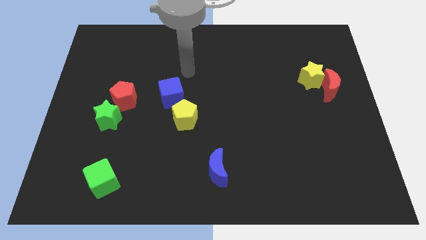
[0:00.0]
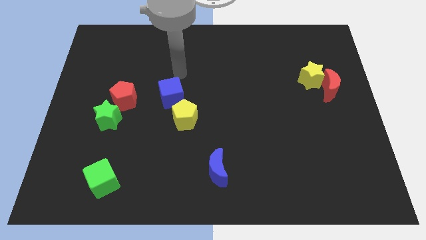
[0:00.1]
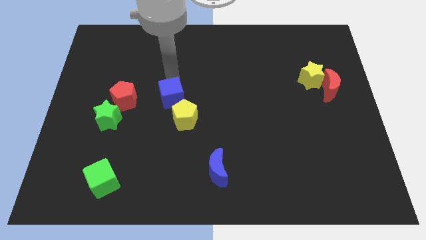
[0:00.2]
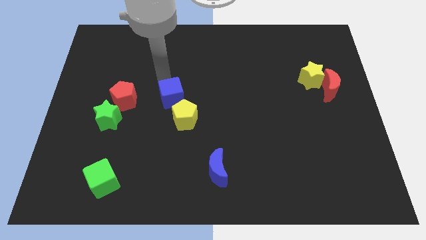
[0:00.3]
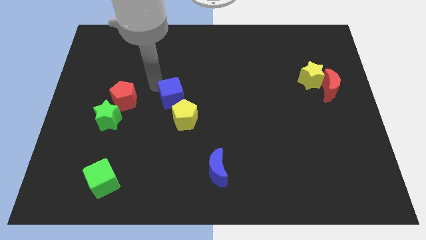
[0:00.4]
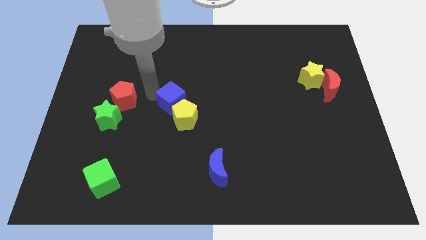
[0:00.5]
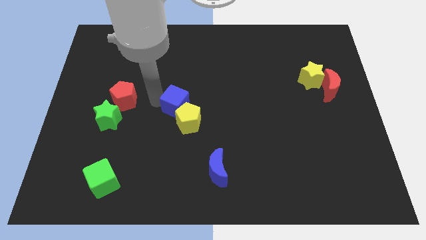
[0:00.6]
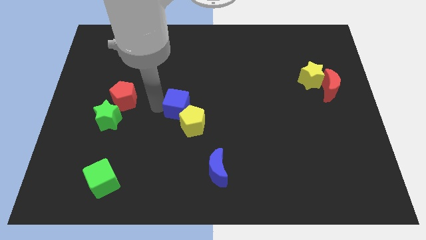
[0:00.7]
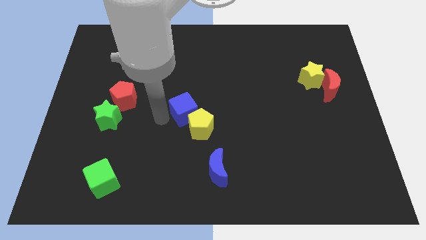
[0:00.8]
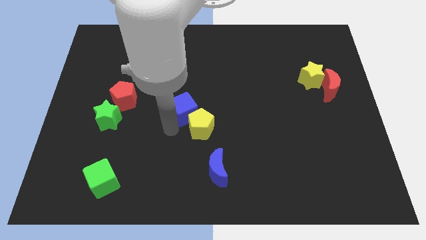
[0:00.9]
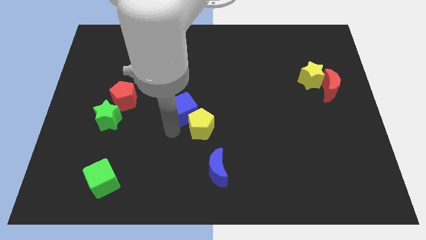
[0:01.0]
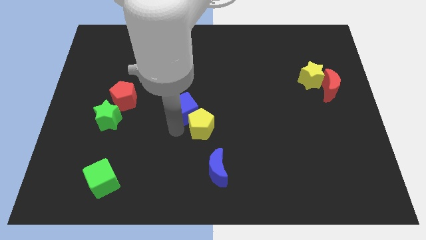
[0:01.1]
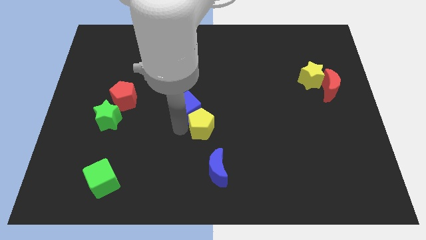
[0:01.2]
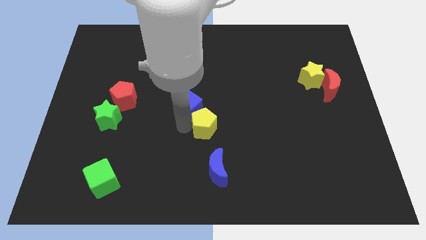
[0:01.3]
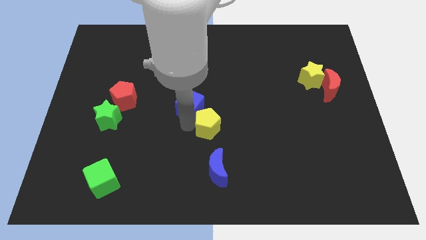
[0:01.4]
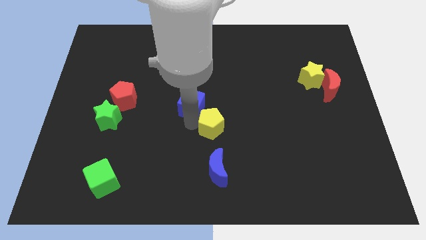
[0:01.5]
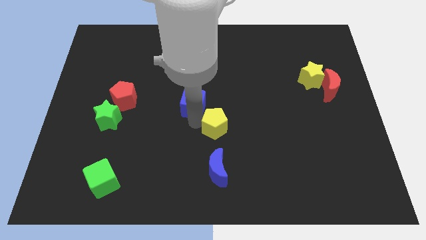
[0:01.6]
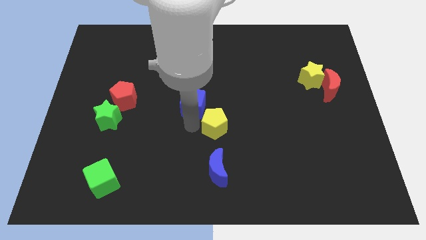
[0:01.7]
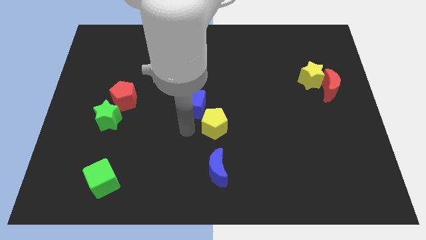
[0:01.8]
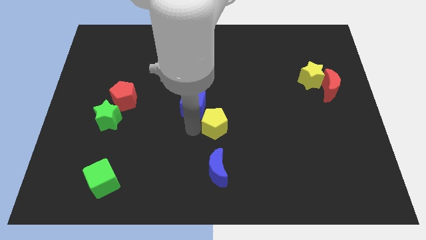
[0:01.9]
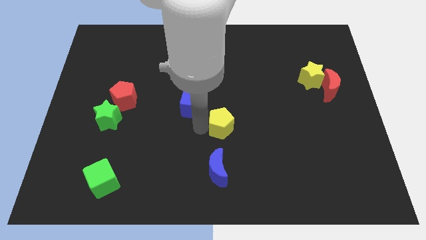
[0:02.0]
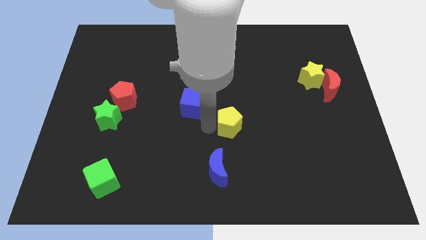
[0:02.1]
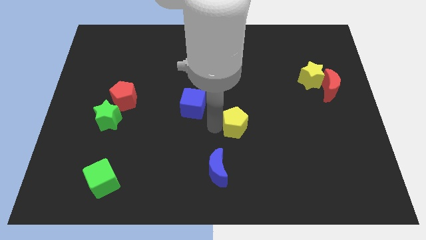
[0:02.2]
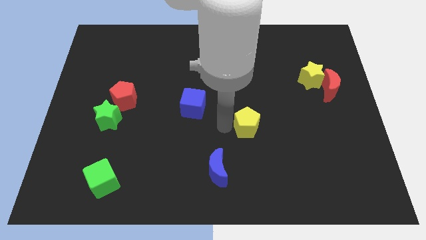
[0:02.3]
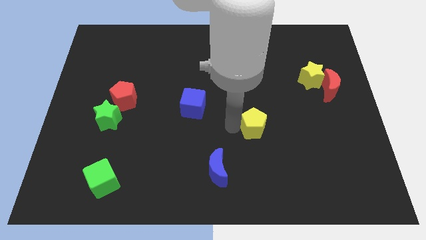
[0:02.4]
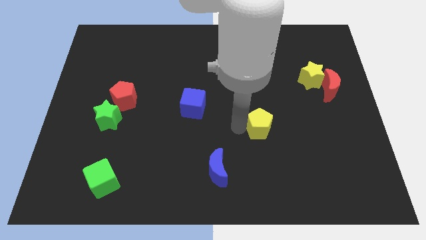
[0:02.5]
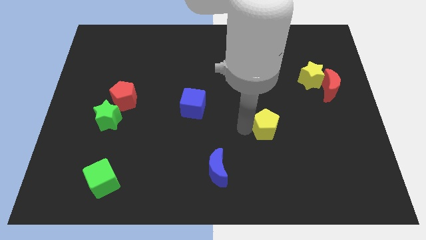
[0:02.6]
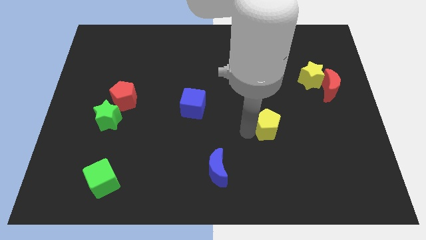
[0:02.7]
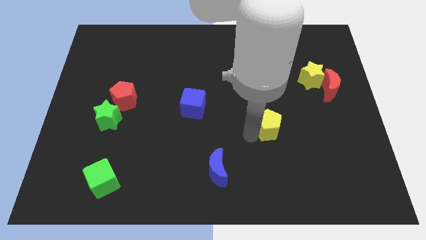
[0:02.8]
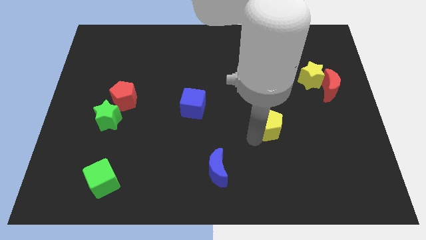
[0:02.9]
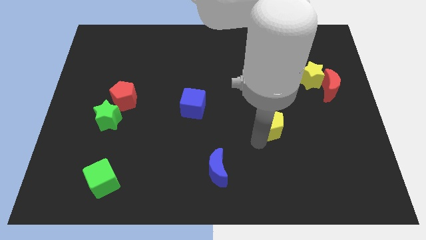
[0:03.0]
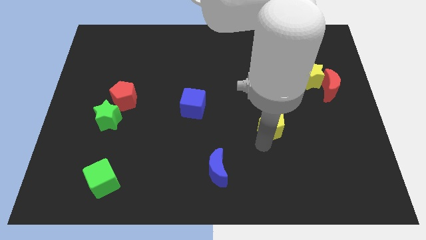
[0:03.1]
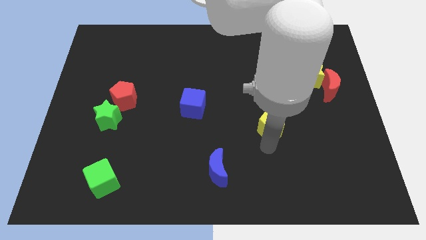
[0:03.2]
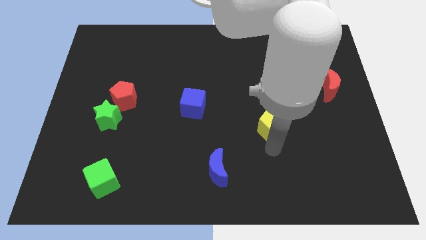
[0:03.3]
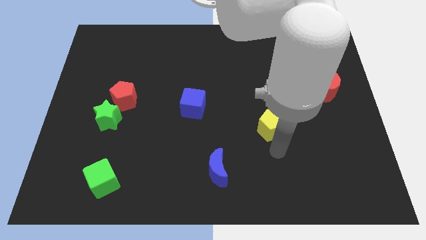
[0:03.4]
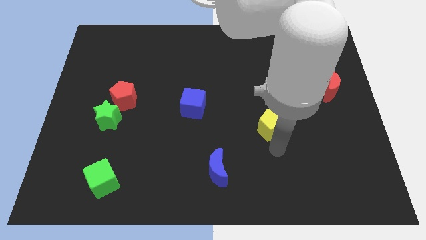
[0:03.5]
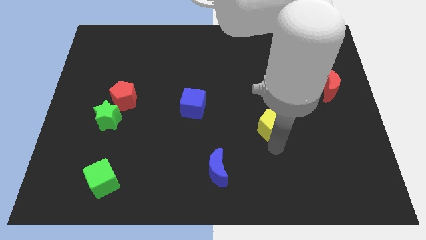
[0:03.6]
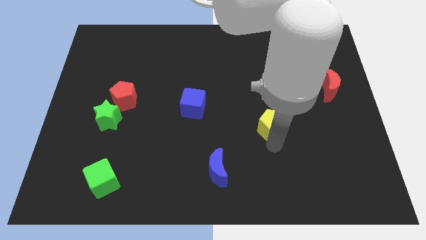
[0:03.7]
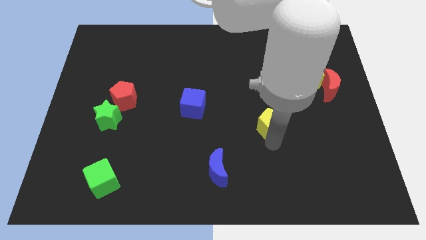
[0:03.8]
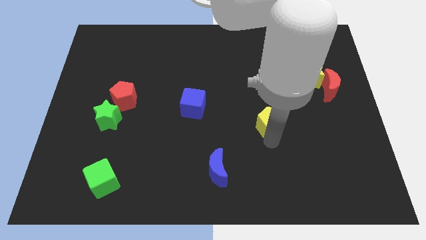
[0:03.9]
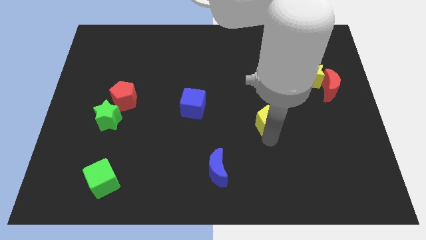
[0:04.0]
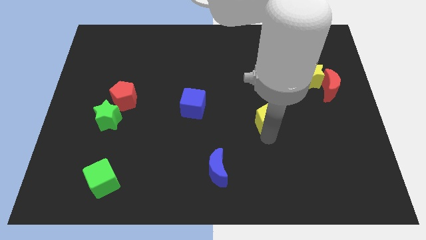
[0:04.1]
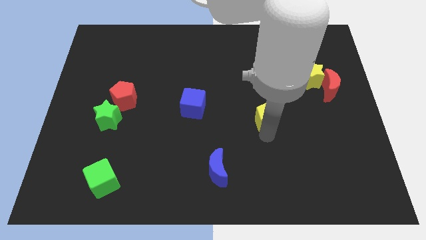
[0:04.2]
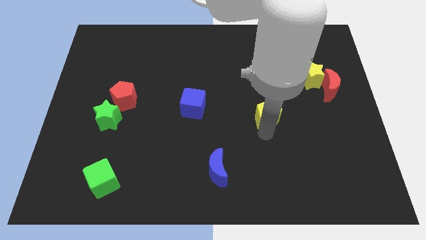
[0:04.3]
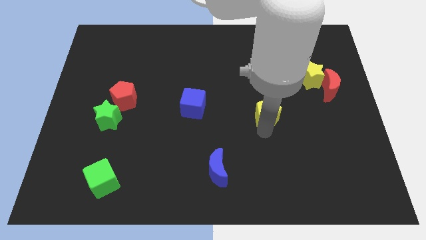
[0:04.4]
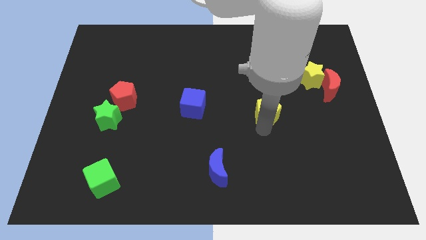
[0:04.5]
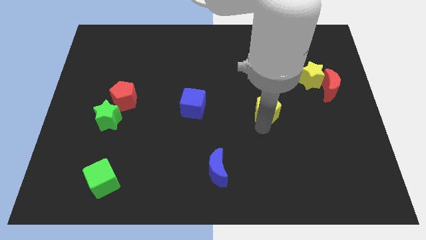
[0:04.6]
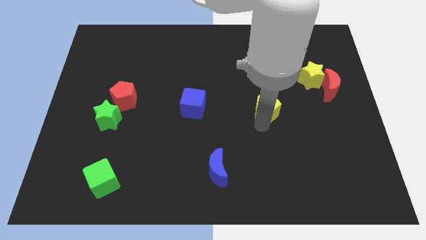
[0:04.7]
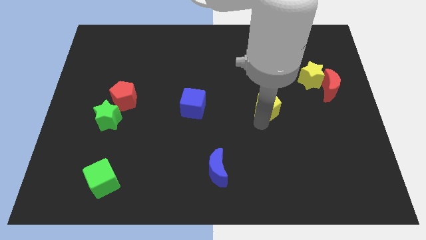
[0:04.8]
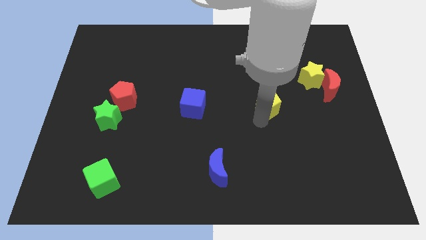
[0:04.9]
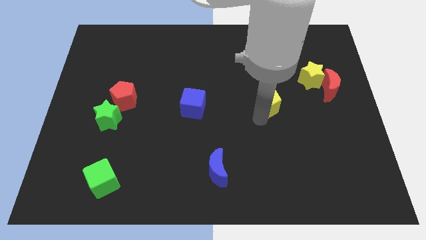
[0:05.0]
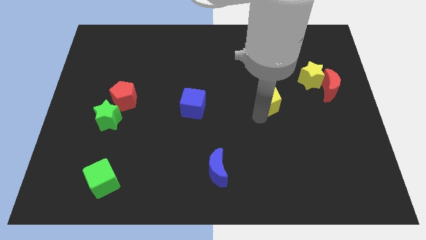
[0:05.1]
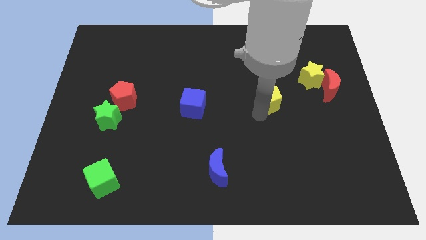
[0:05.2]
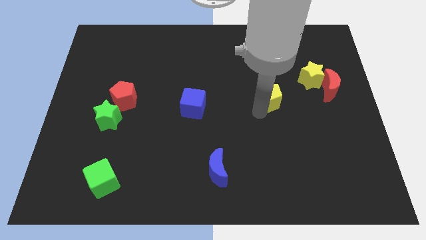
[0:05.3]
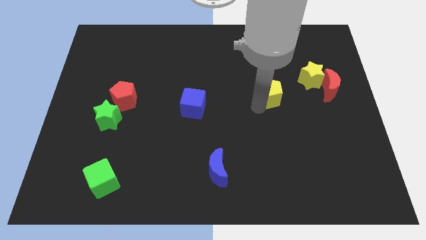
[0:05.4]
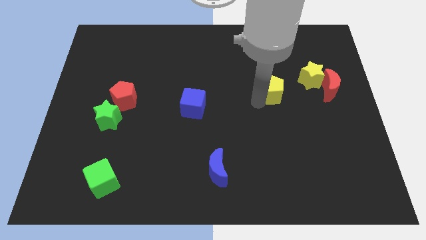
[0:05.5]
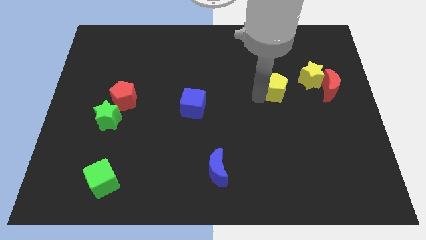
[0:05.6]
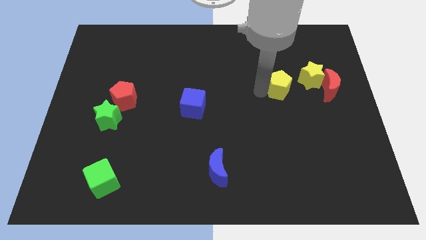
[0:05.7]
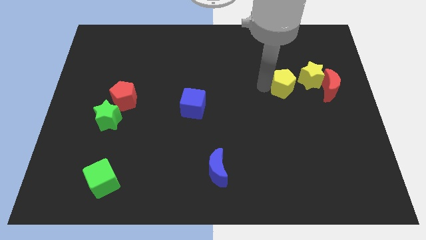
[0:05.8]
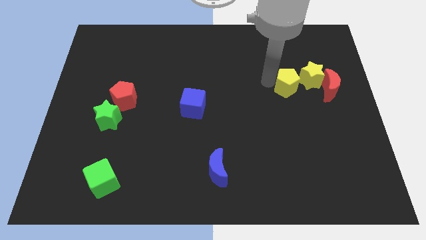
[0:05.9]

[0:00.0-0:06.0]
move the yellow pentagon to the right

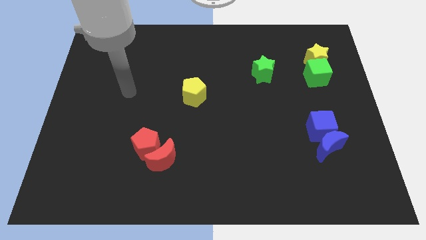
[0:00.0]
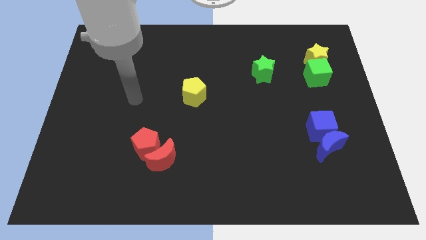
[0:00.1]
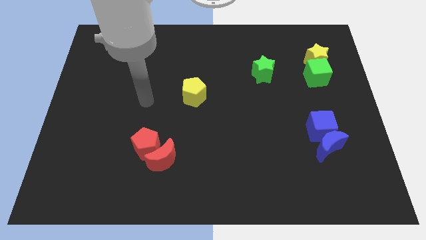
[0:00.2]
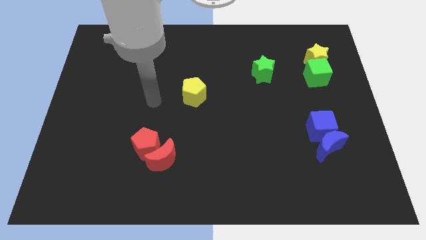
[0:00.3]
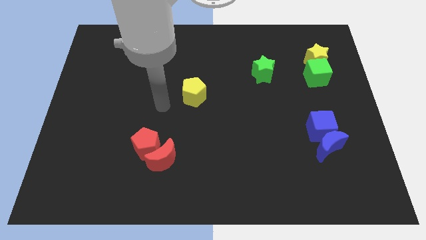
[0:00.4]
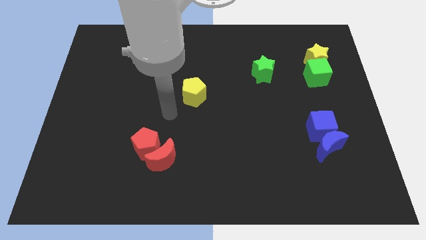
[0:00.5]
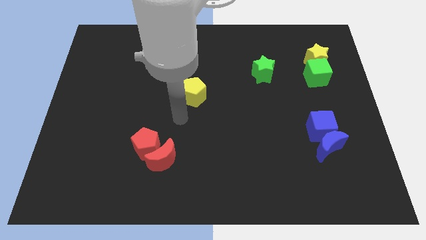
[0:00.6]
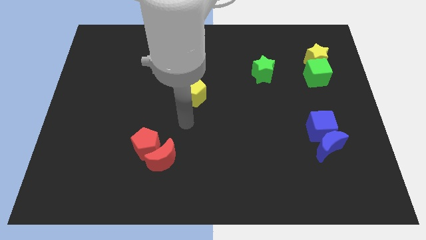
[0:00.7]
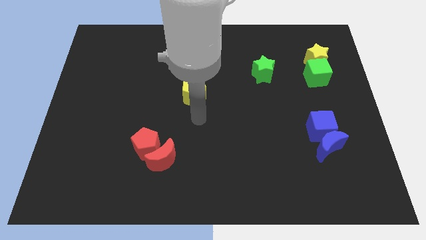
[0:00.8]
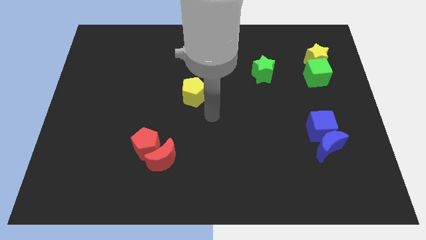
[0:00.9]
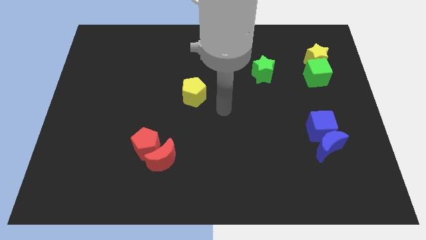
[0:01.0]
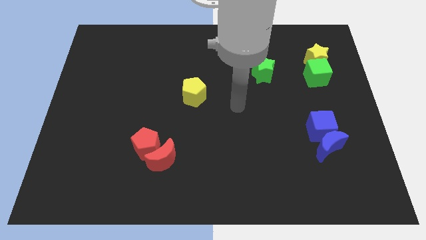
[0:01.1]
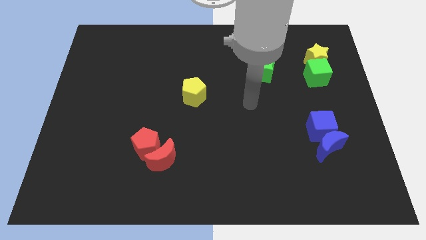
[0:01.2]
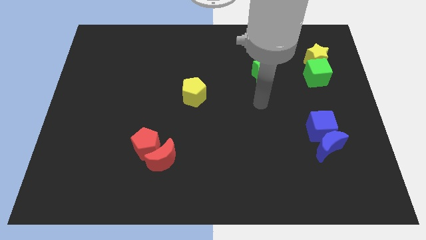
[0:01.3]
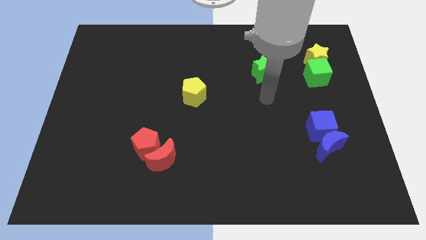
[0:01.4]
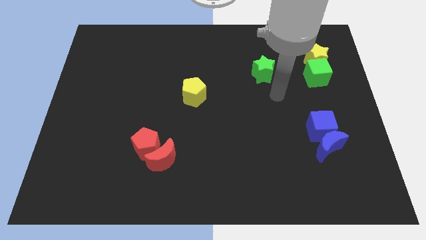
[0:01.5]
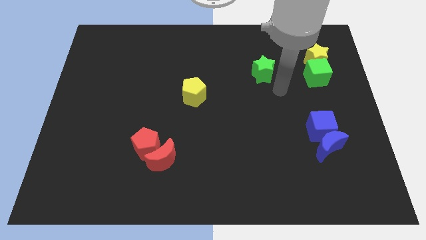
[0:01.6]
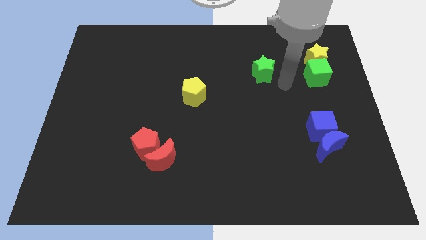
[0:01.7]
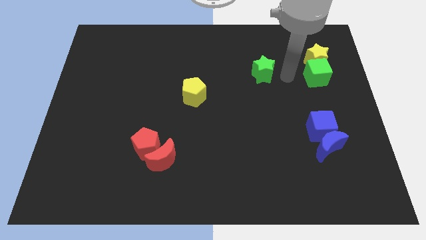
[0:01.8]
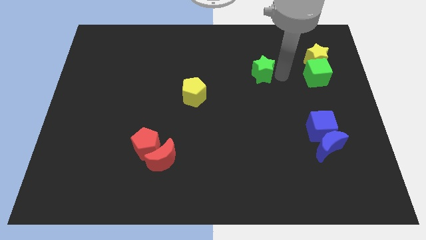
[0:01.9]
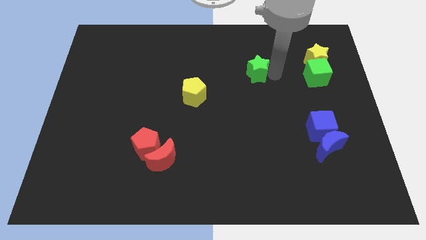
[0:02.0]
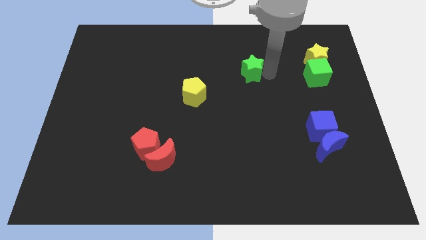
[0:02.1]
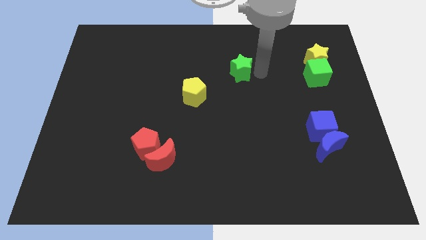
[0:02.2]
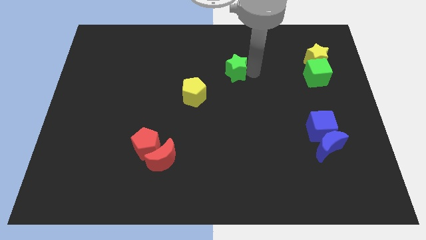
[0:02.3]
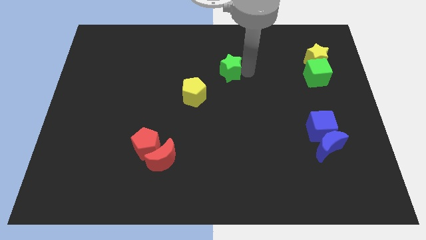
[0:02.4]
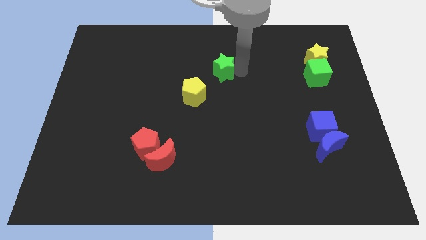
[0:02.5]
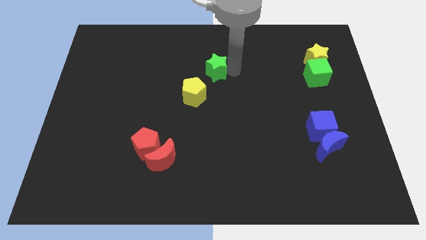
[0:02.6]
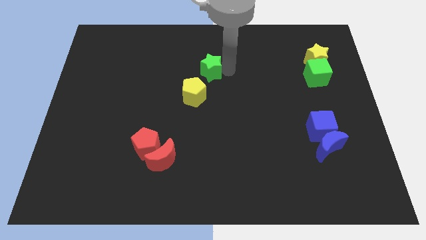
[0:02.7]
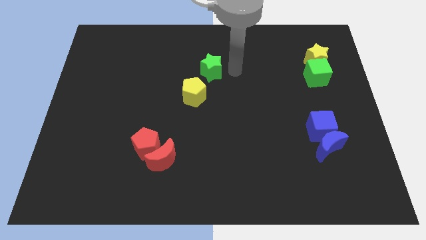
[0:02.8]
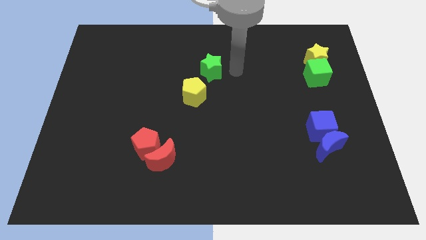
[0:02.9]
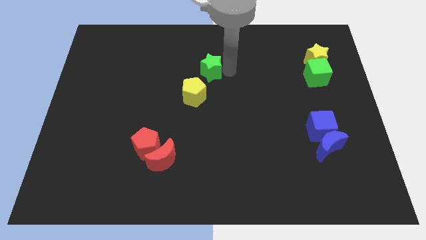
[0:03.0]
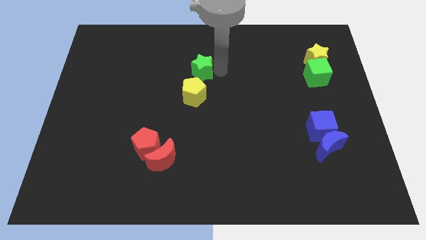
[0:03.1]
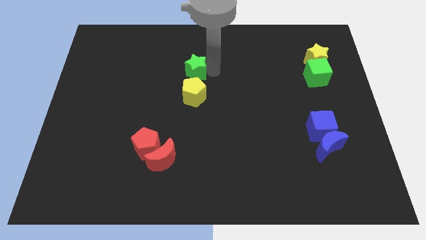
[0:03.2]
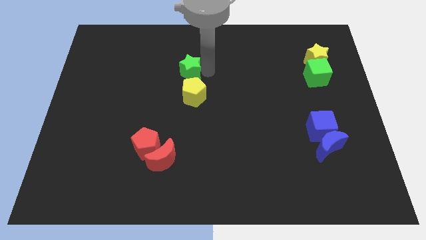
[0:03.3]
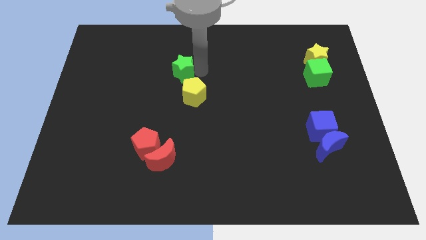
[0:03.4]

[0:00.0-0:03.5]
push the green star left
